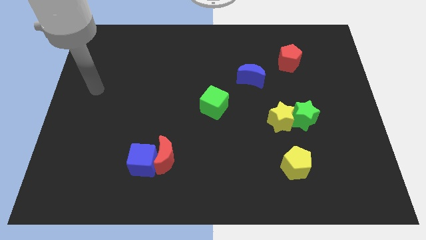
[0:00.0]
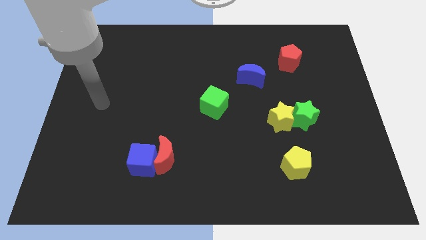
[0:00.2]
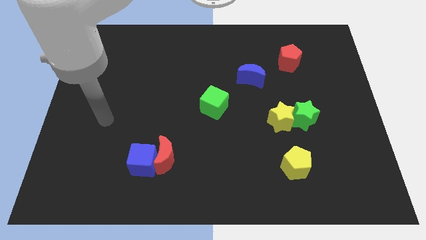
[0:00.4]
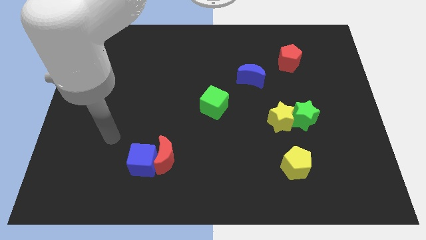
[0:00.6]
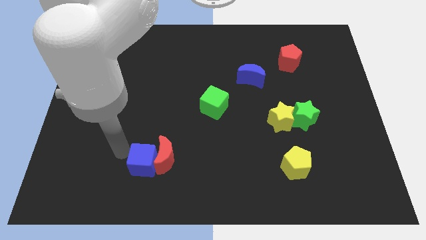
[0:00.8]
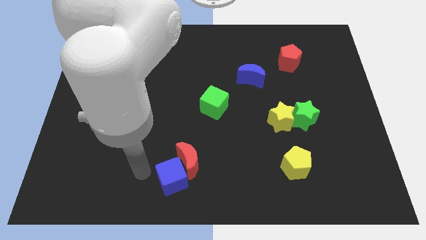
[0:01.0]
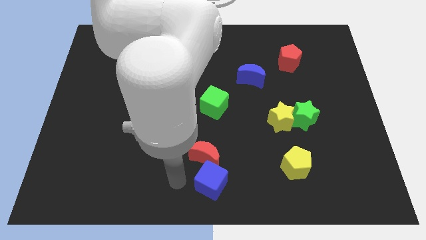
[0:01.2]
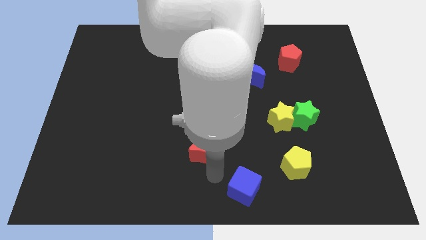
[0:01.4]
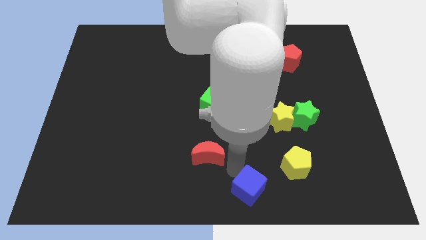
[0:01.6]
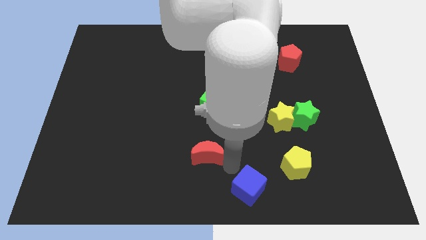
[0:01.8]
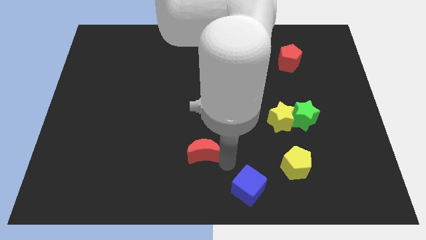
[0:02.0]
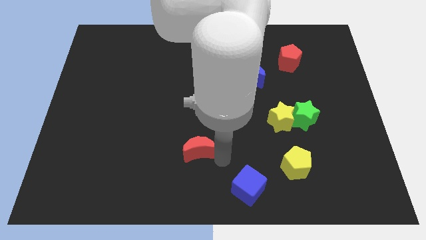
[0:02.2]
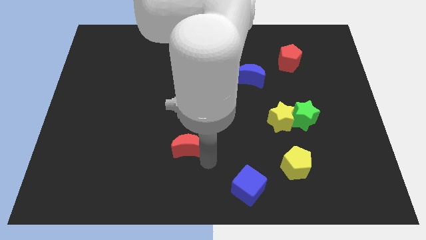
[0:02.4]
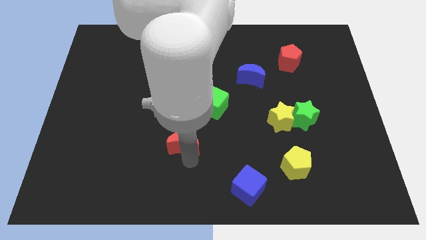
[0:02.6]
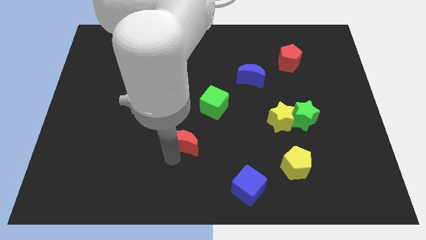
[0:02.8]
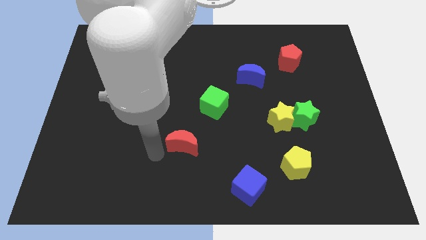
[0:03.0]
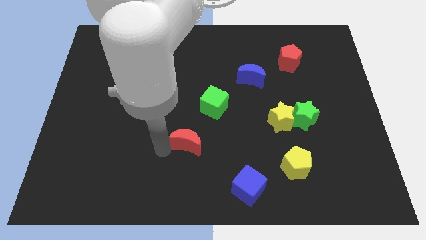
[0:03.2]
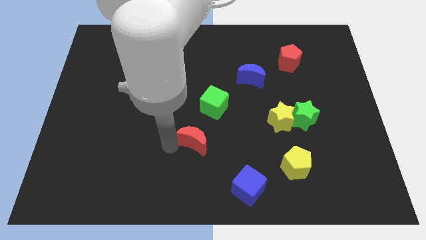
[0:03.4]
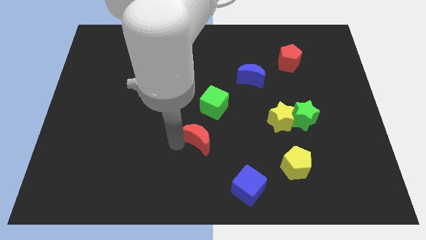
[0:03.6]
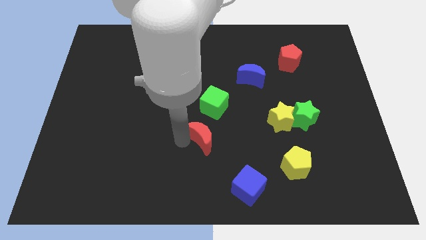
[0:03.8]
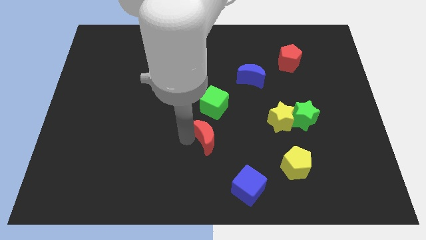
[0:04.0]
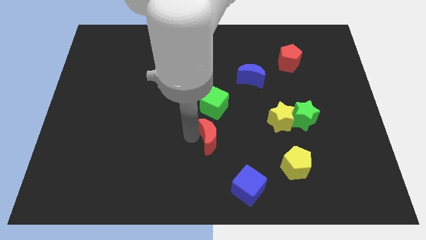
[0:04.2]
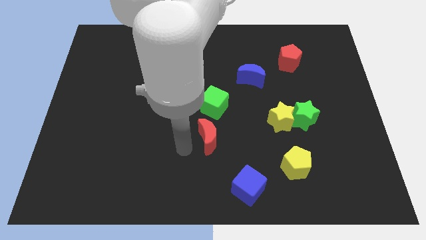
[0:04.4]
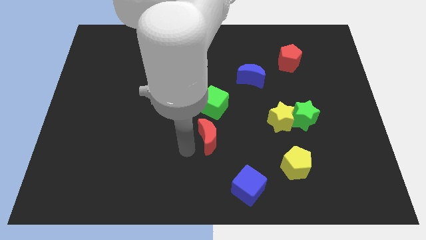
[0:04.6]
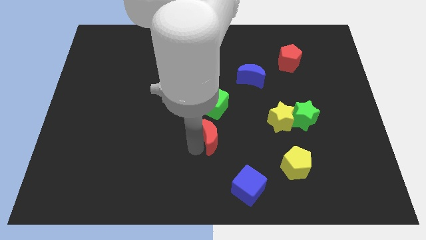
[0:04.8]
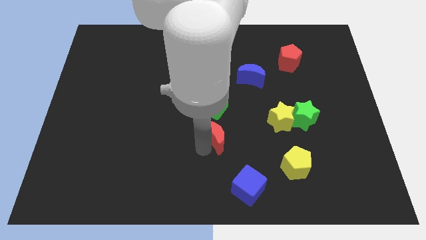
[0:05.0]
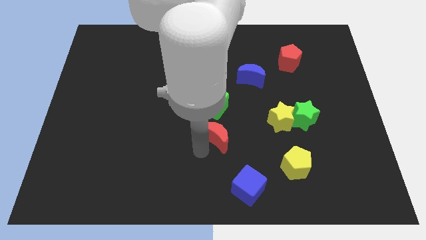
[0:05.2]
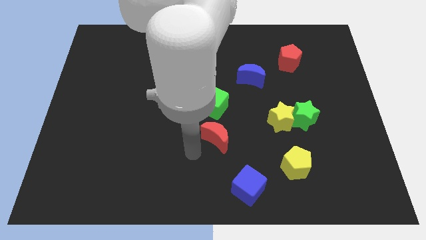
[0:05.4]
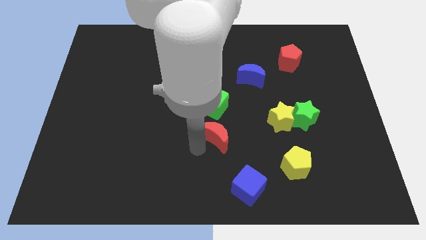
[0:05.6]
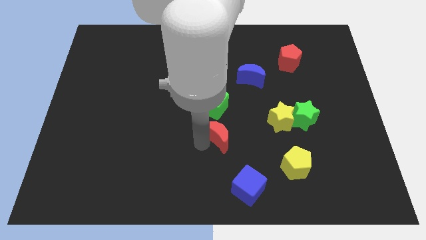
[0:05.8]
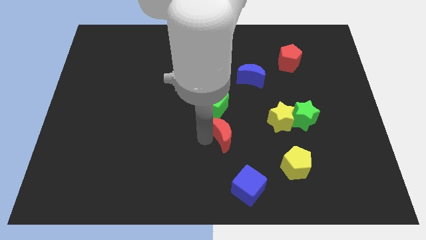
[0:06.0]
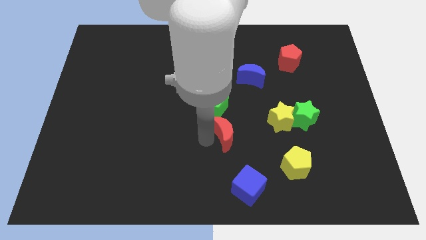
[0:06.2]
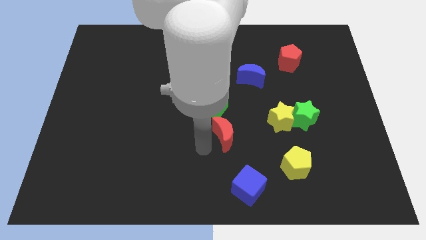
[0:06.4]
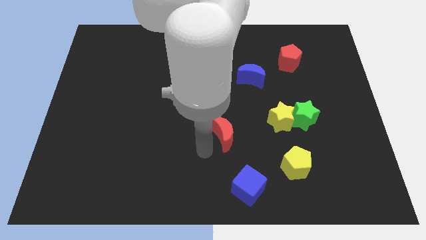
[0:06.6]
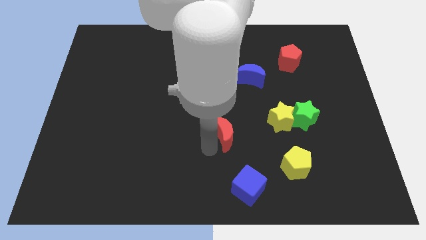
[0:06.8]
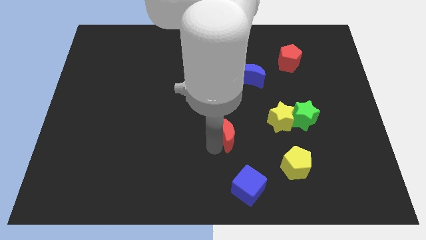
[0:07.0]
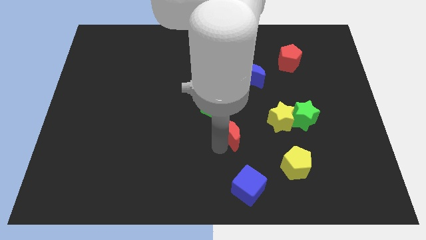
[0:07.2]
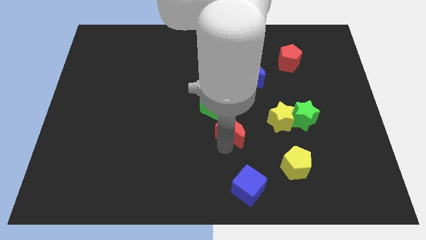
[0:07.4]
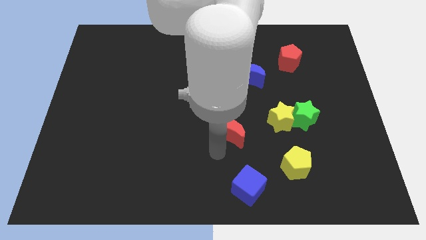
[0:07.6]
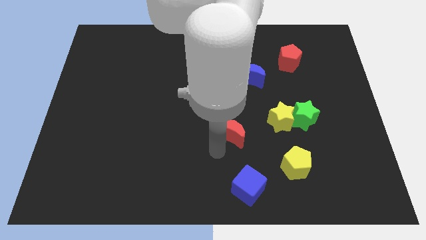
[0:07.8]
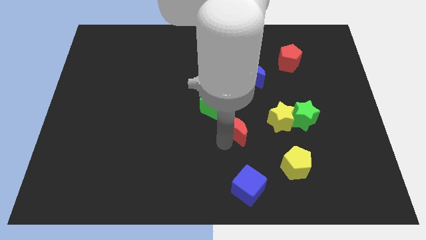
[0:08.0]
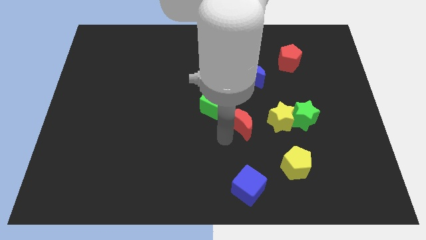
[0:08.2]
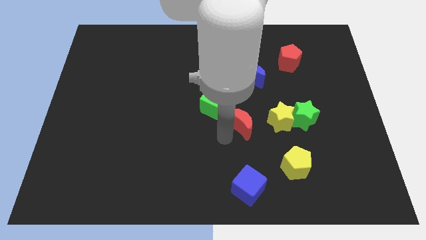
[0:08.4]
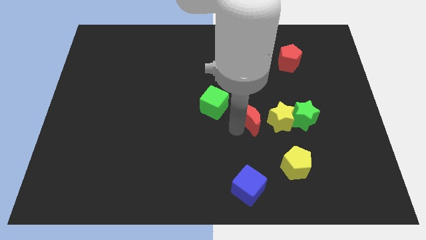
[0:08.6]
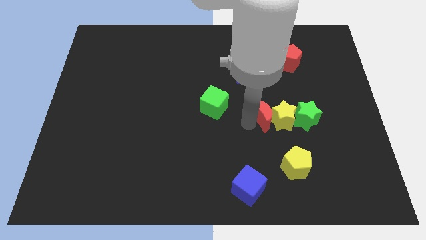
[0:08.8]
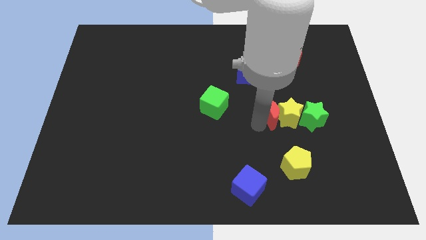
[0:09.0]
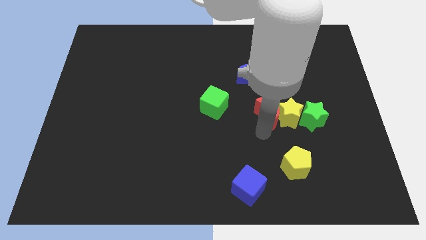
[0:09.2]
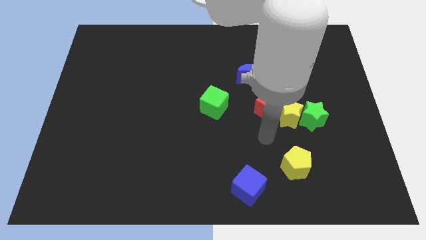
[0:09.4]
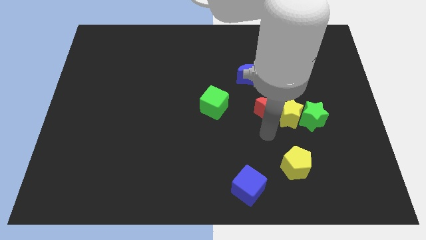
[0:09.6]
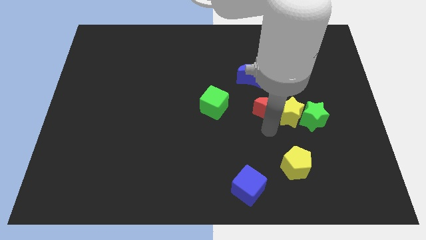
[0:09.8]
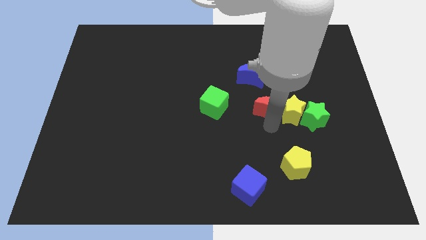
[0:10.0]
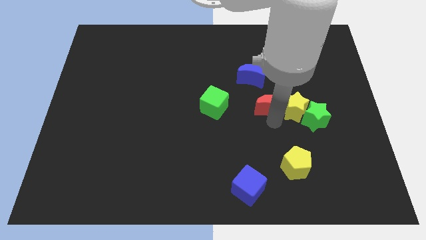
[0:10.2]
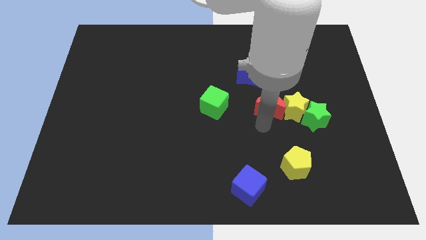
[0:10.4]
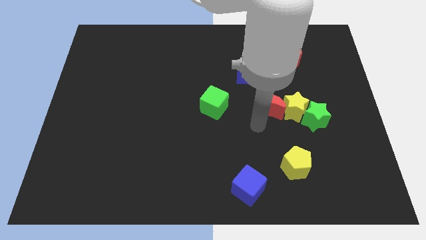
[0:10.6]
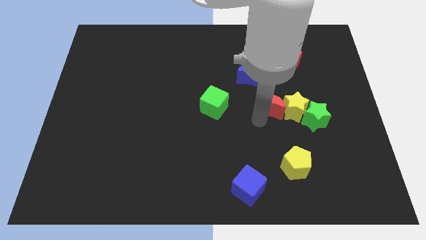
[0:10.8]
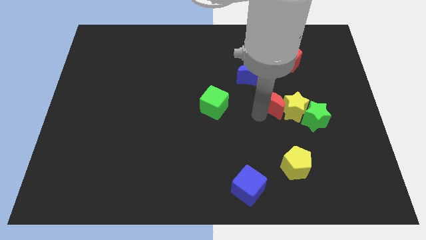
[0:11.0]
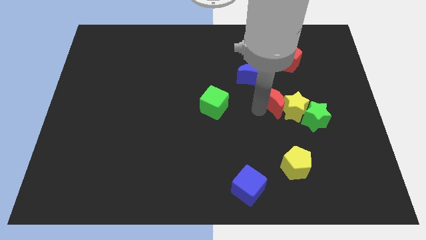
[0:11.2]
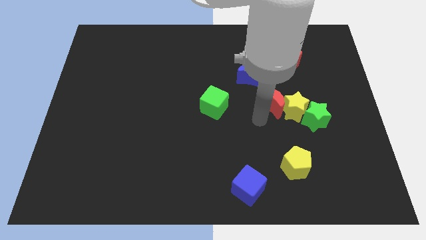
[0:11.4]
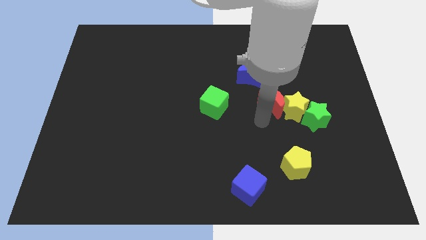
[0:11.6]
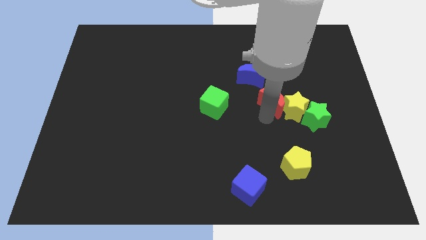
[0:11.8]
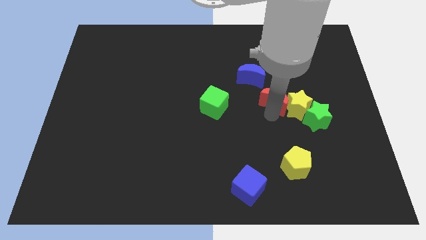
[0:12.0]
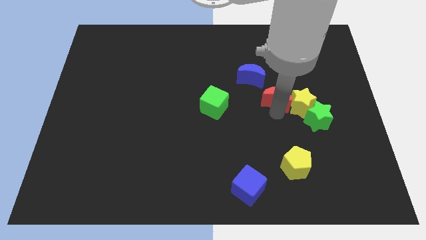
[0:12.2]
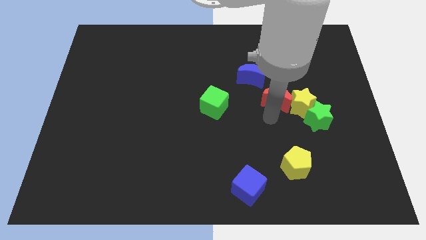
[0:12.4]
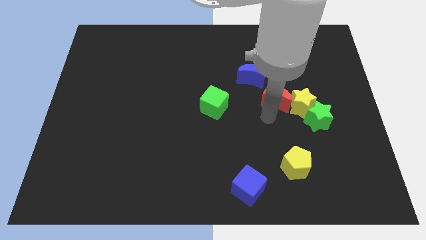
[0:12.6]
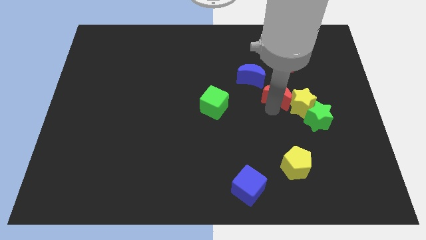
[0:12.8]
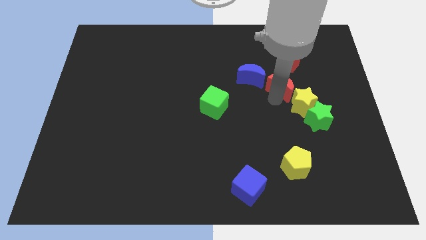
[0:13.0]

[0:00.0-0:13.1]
push the red moon to the right of the blue moon

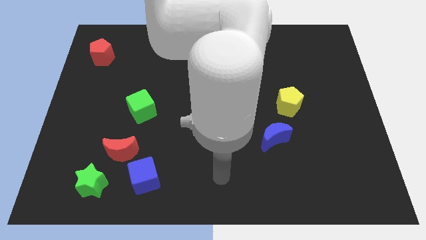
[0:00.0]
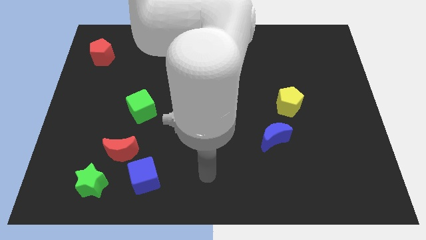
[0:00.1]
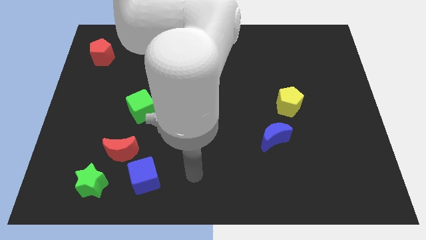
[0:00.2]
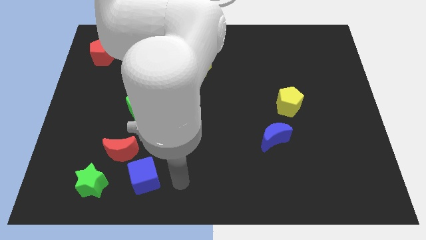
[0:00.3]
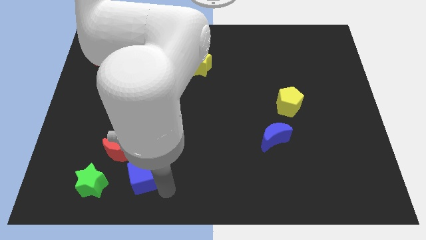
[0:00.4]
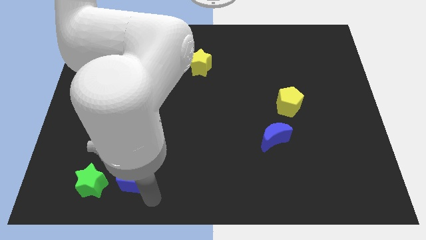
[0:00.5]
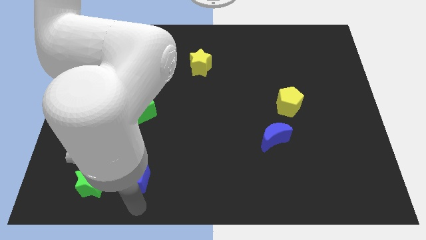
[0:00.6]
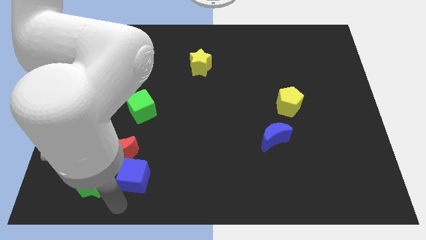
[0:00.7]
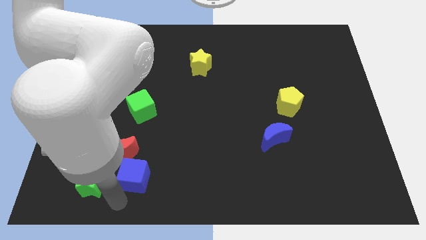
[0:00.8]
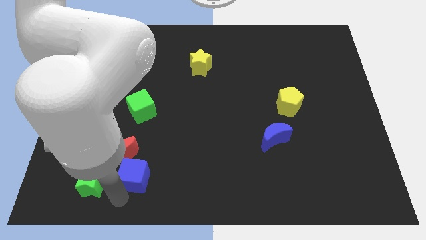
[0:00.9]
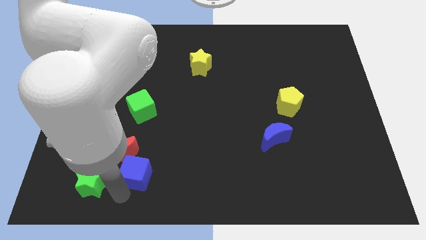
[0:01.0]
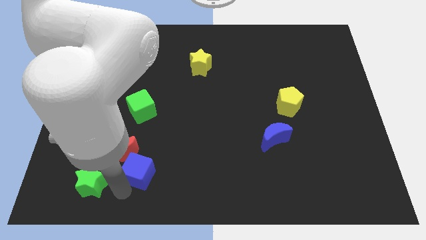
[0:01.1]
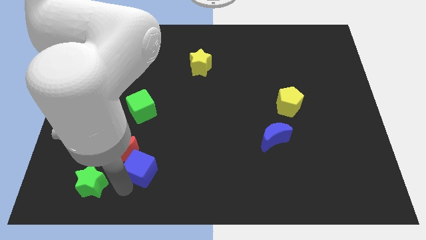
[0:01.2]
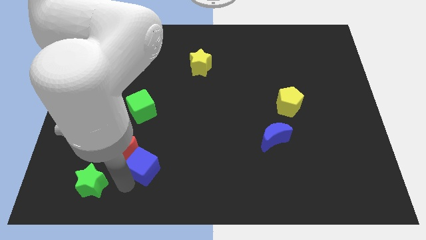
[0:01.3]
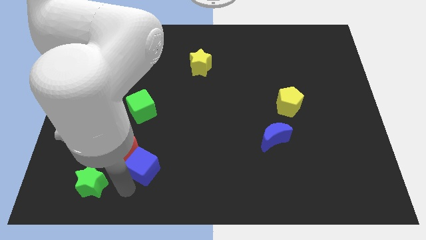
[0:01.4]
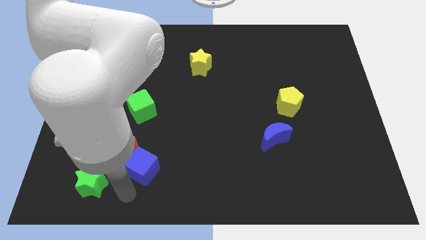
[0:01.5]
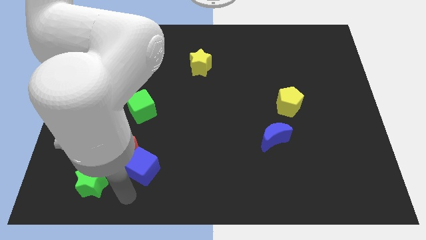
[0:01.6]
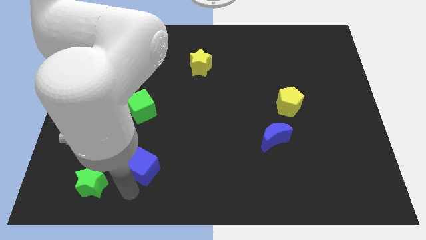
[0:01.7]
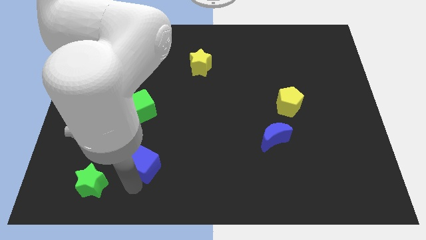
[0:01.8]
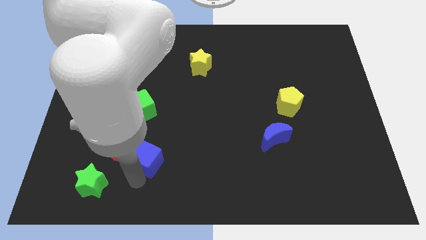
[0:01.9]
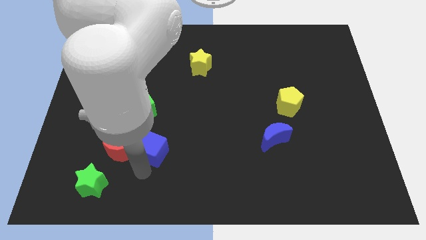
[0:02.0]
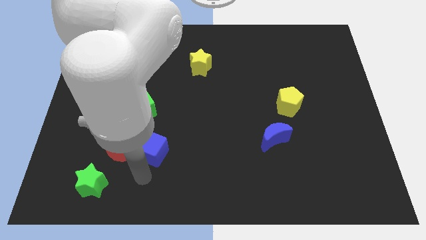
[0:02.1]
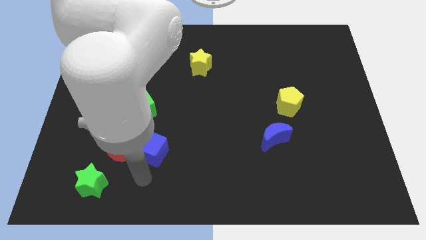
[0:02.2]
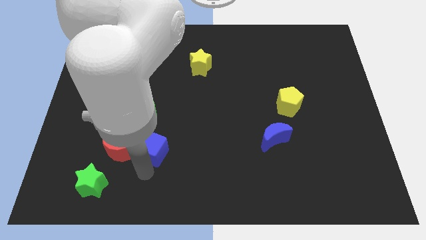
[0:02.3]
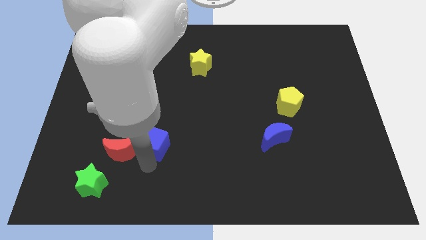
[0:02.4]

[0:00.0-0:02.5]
push the blue cube diagonally down and to the right of the green cube
